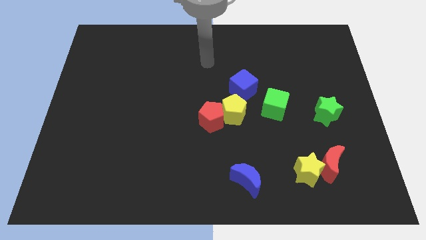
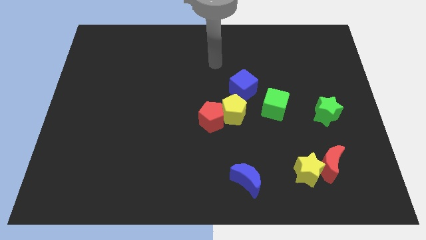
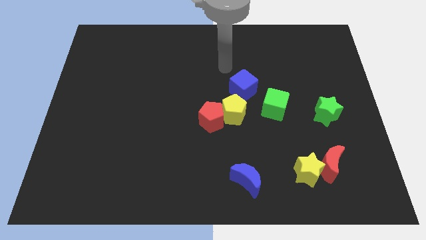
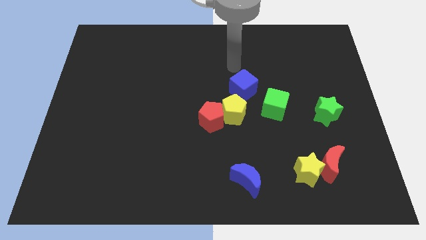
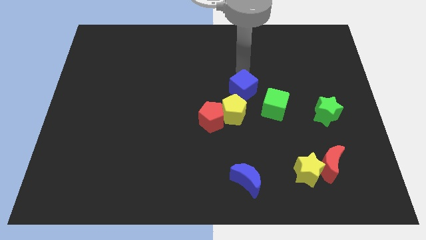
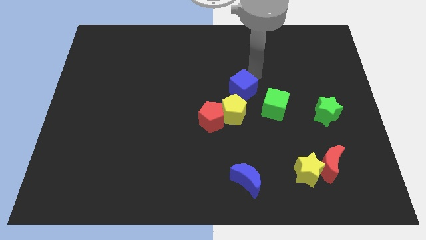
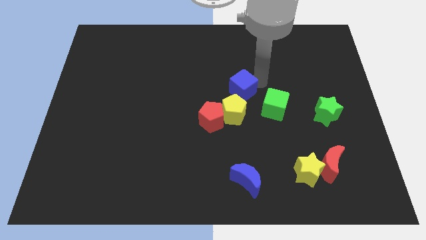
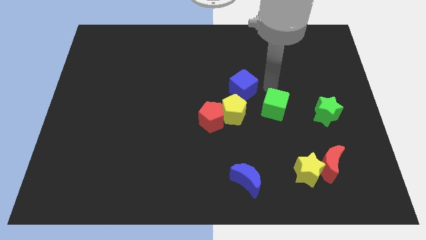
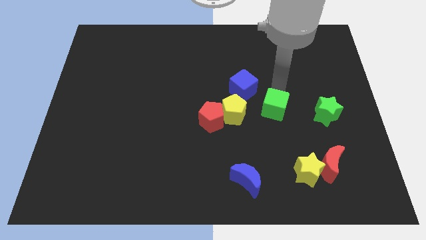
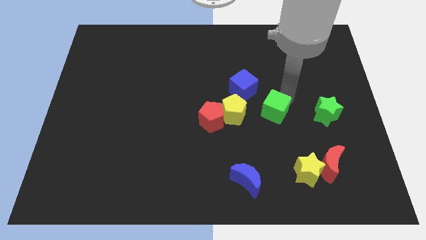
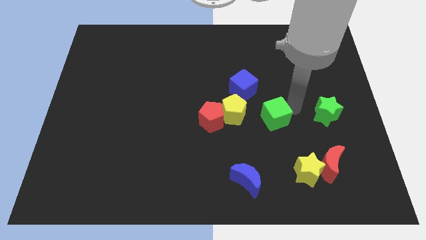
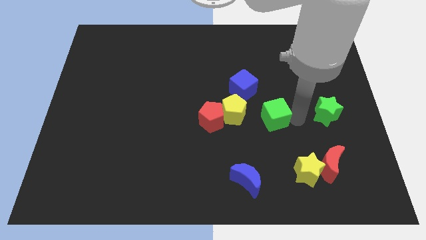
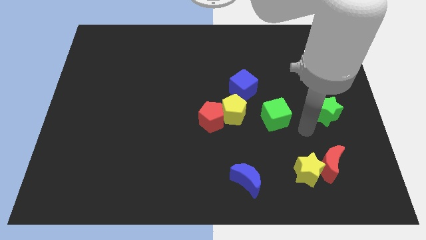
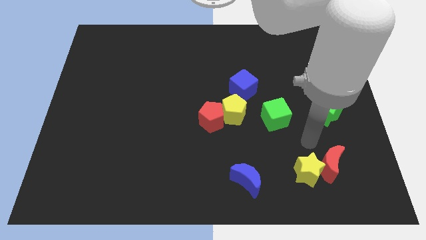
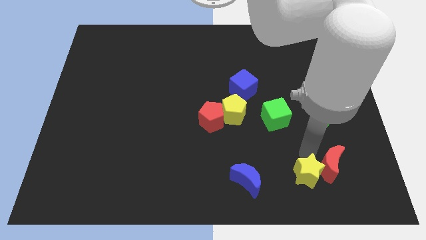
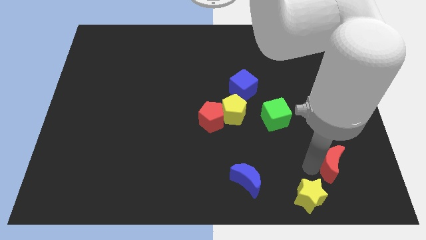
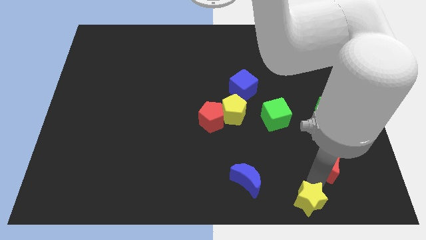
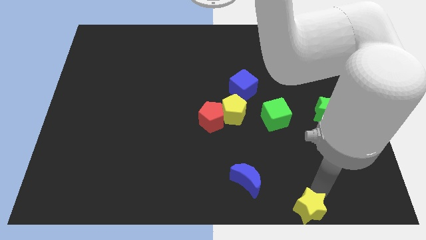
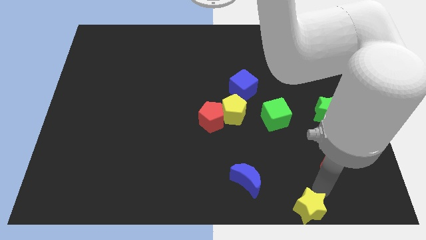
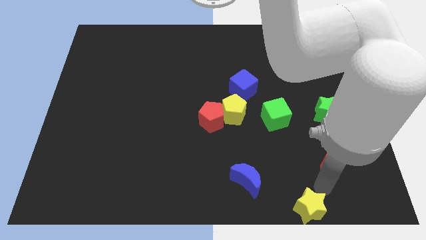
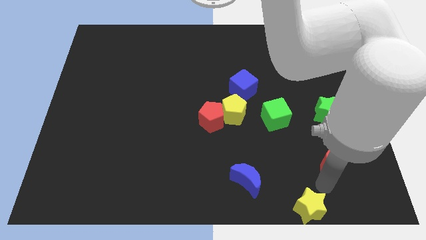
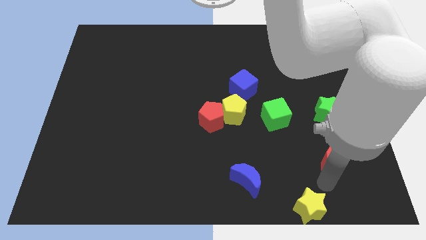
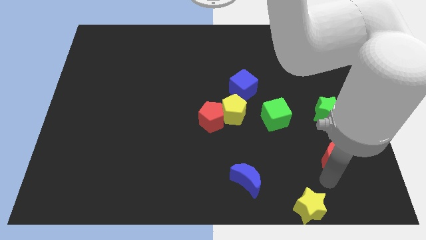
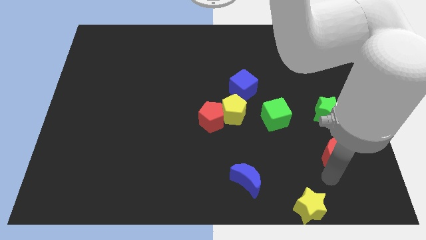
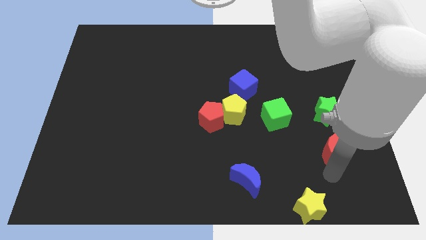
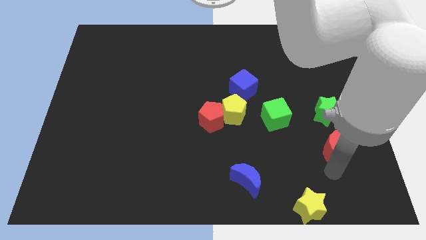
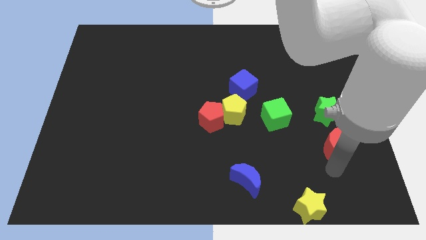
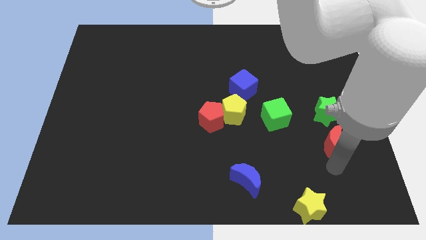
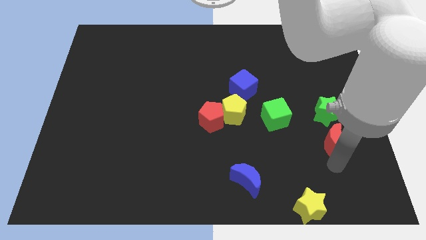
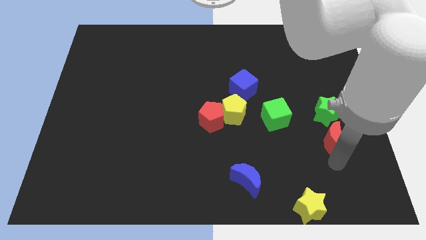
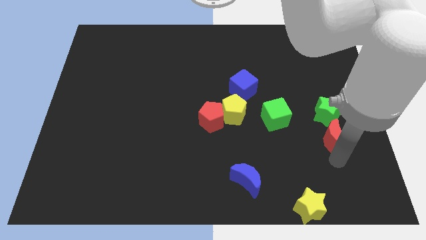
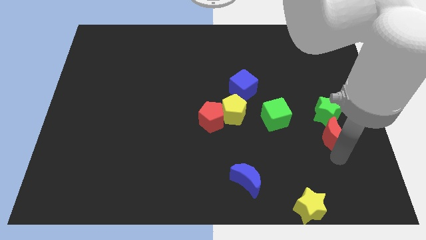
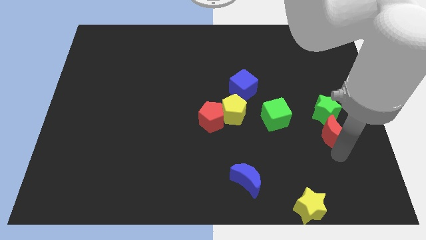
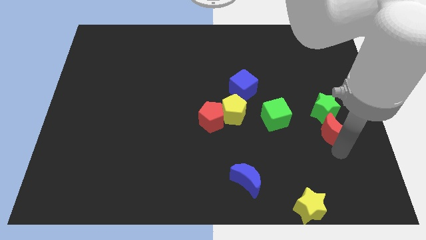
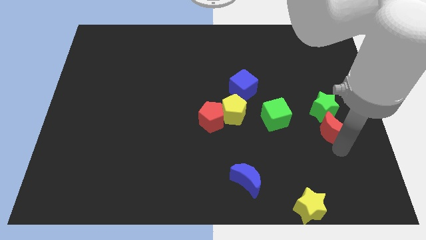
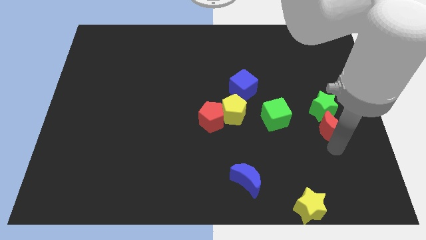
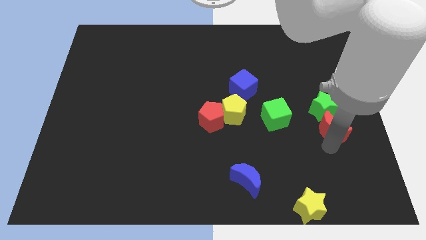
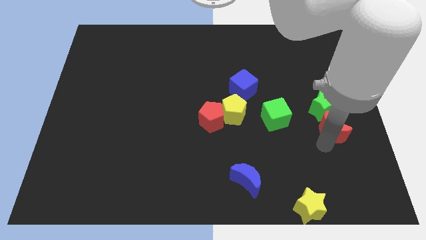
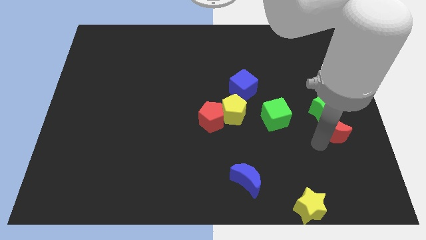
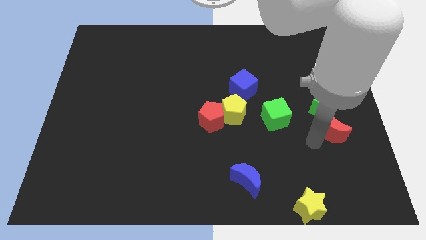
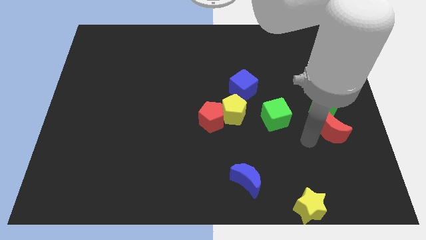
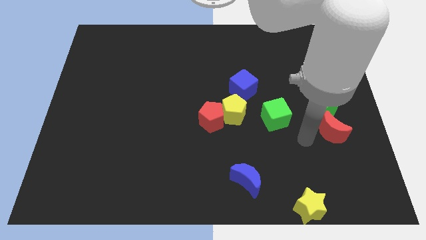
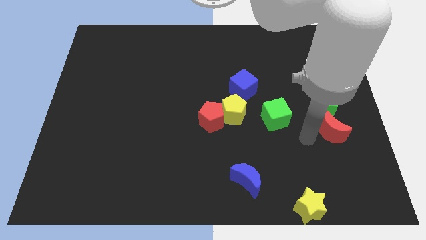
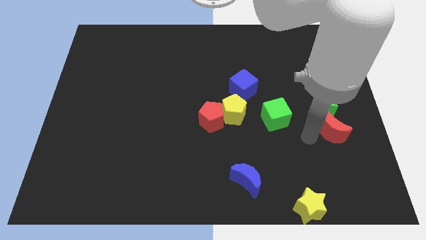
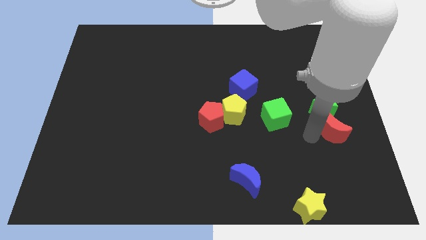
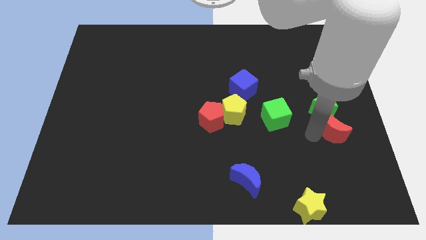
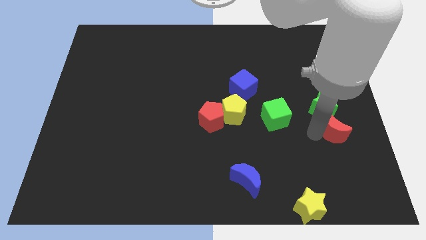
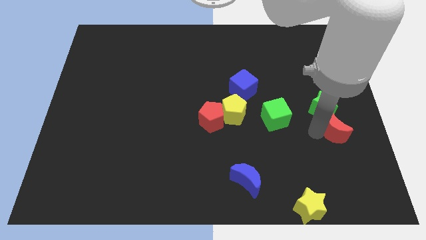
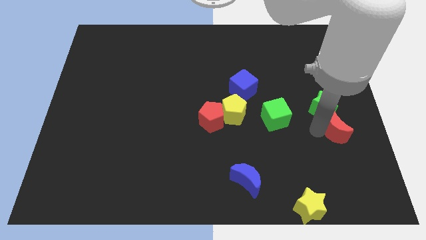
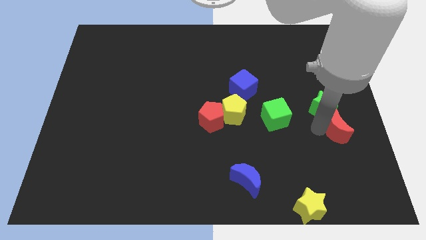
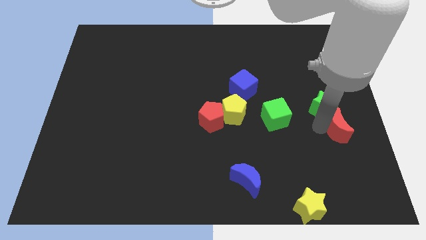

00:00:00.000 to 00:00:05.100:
put the red moon to the right side

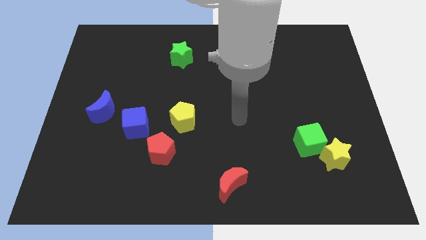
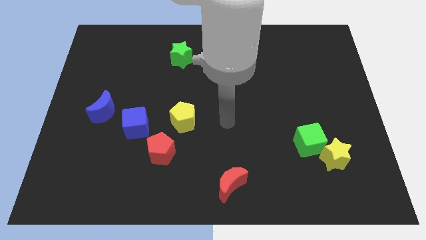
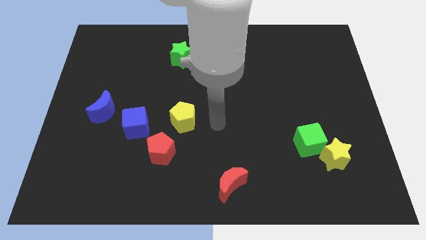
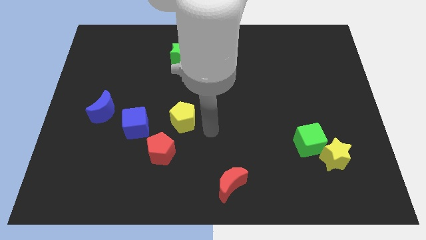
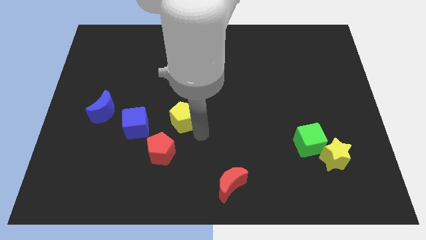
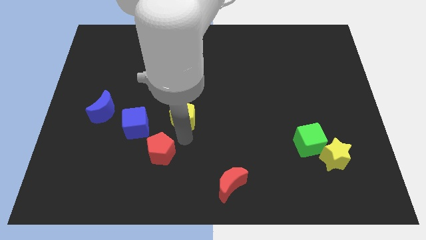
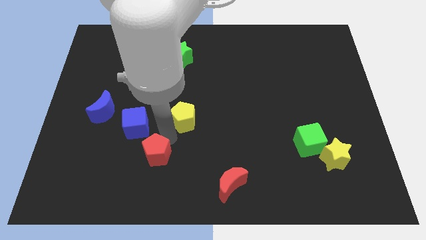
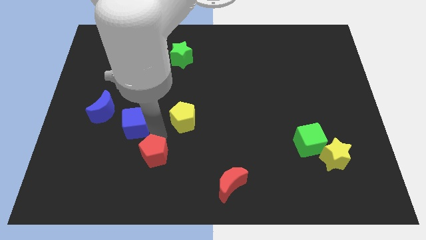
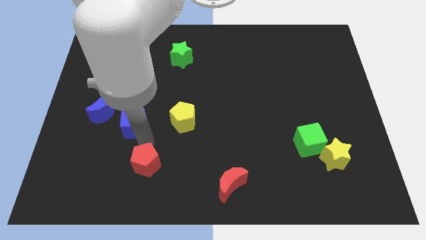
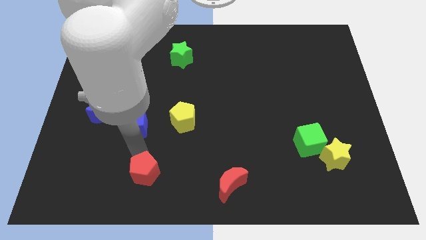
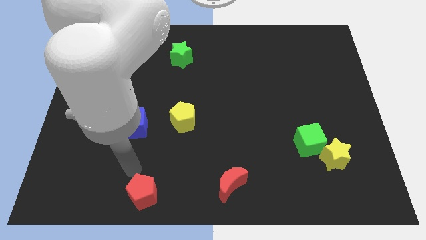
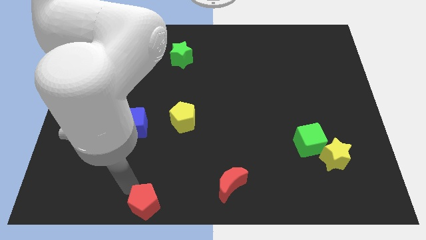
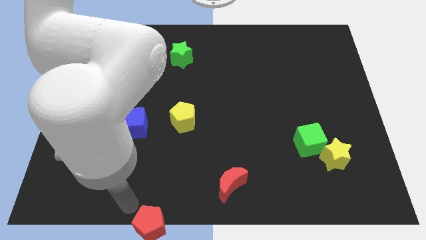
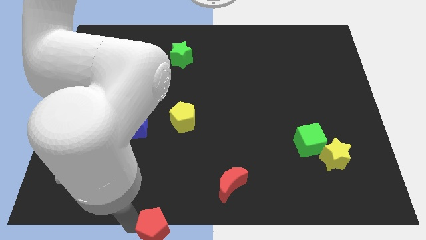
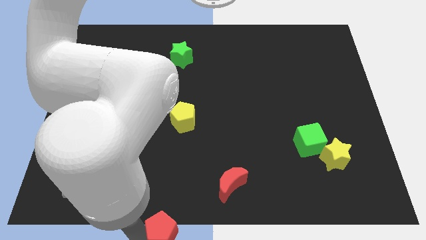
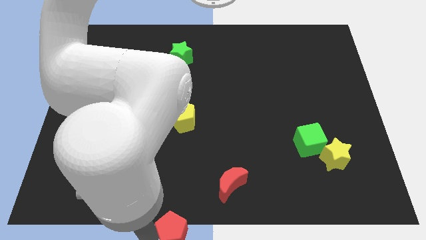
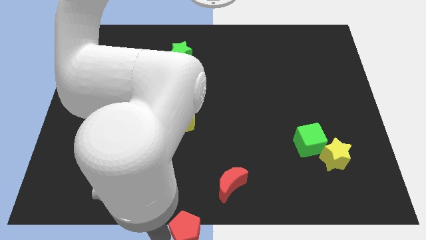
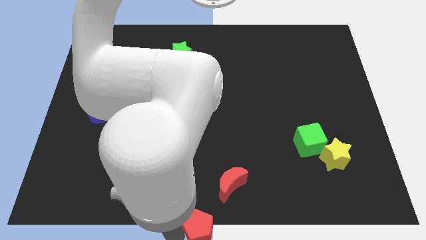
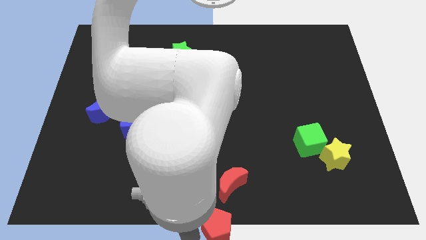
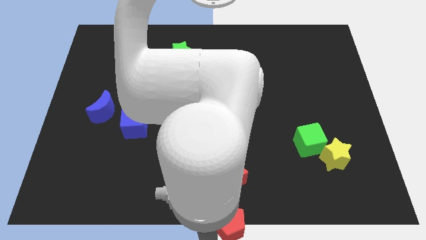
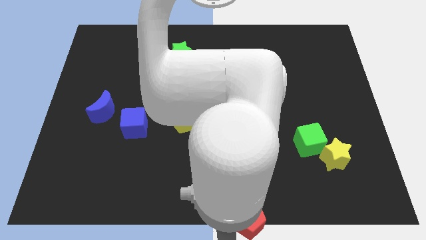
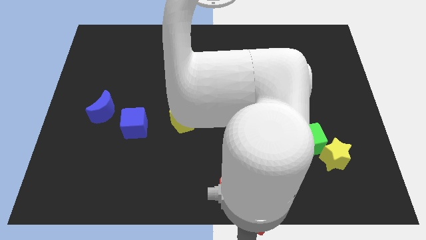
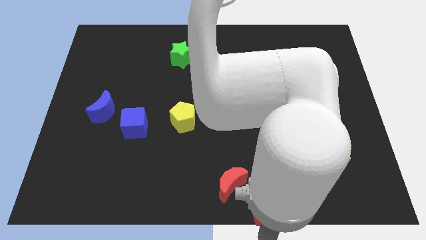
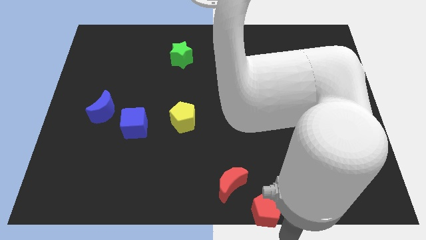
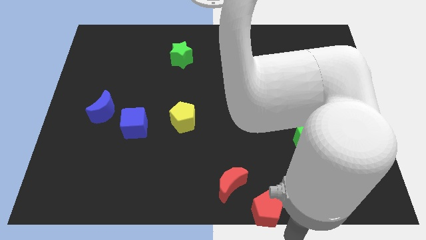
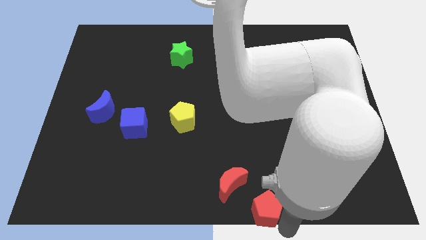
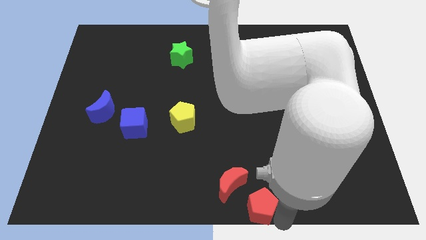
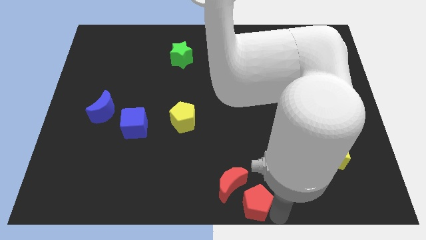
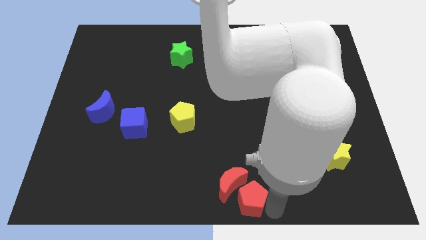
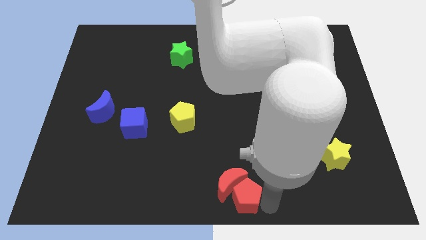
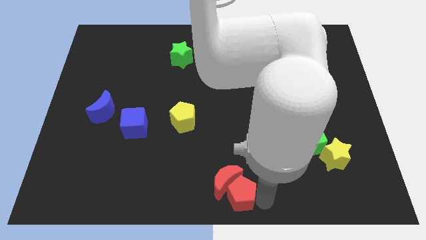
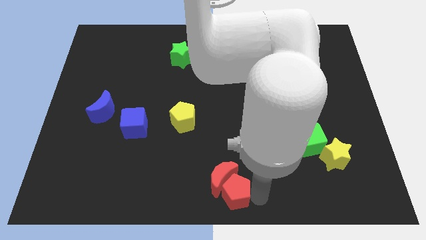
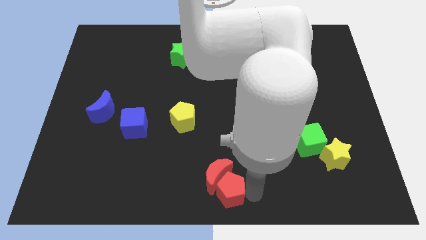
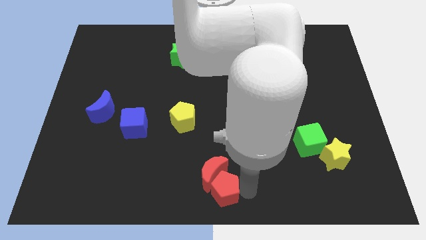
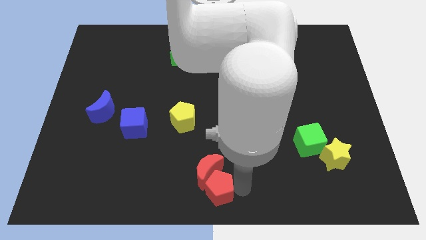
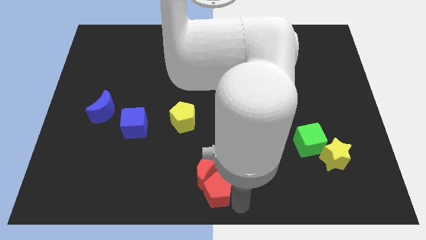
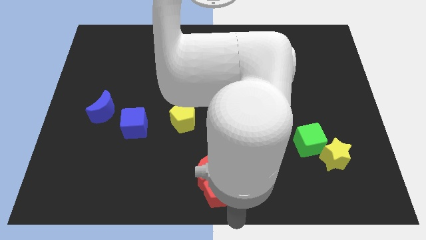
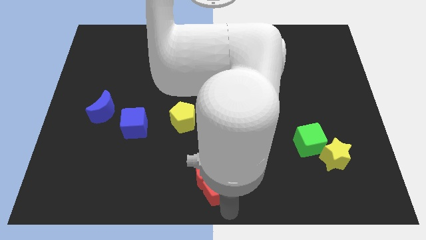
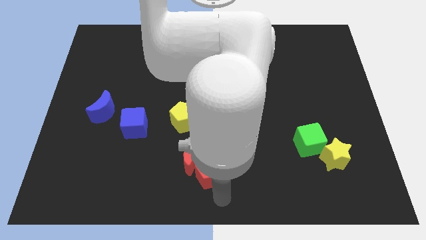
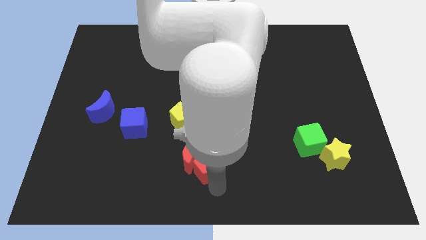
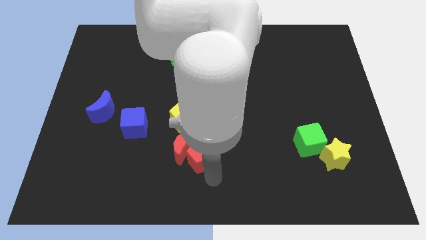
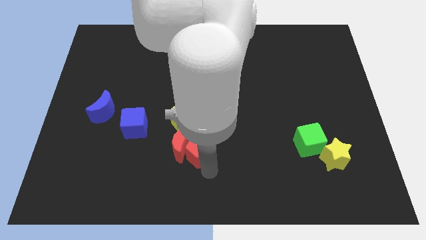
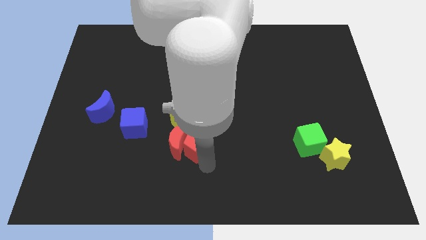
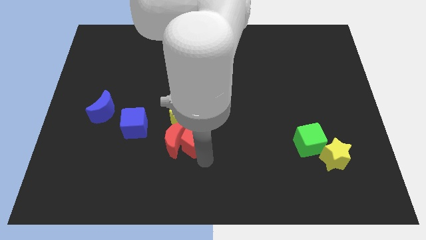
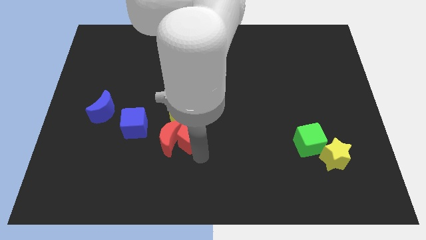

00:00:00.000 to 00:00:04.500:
move the red pentagon to the center of the board
